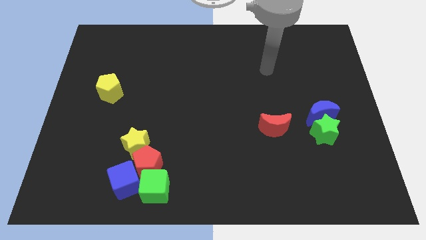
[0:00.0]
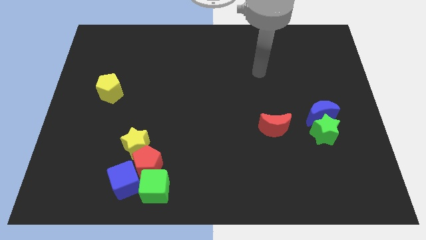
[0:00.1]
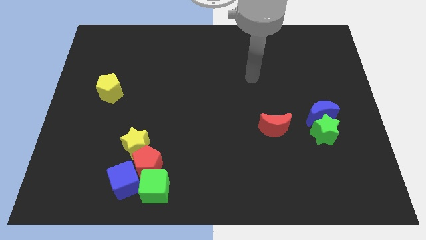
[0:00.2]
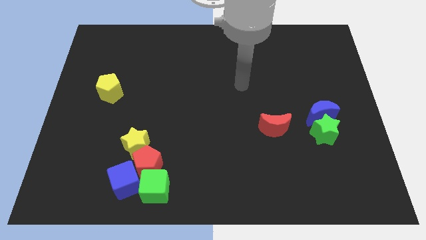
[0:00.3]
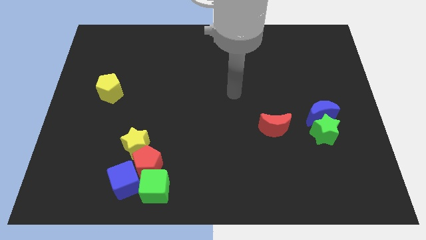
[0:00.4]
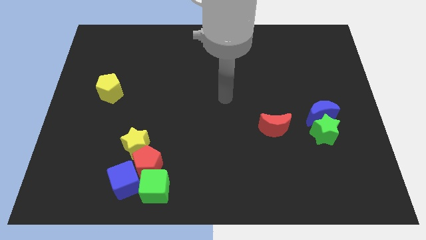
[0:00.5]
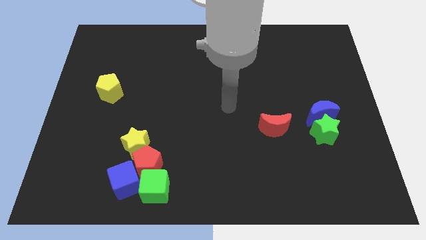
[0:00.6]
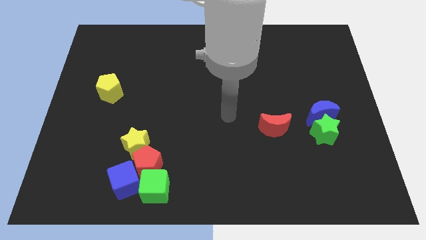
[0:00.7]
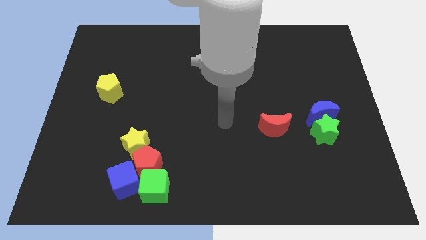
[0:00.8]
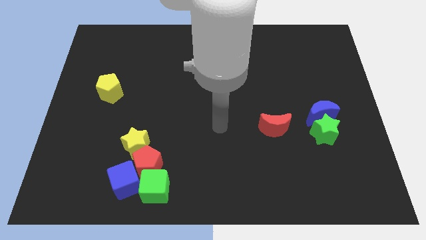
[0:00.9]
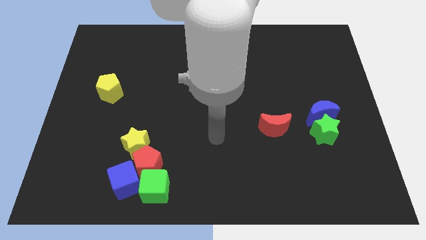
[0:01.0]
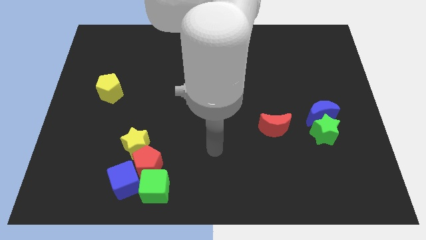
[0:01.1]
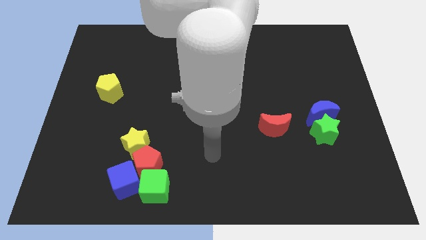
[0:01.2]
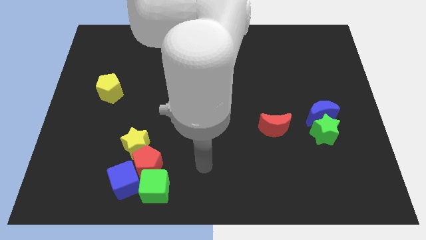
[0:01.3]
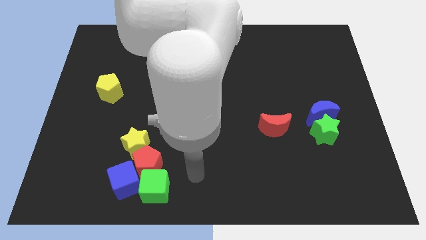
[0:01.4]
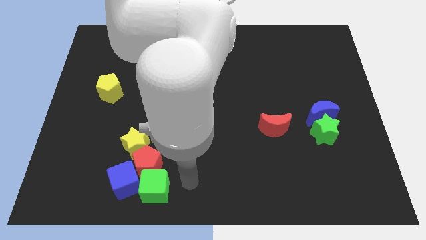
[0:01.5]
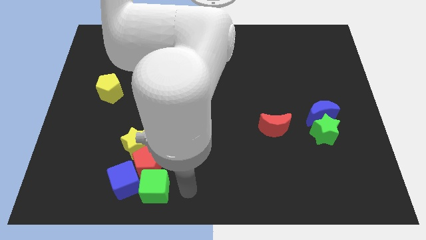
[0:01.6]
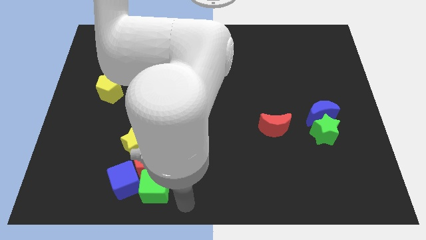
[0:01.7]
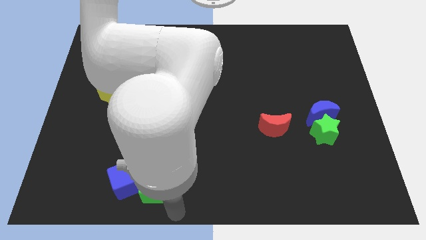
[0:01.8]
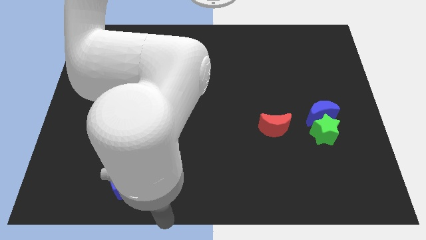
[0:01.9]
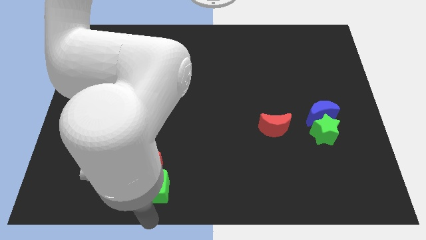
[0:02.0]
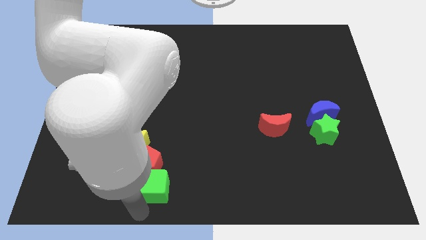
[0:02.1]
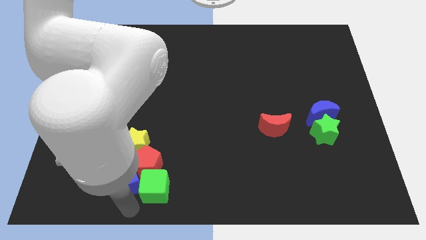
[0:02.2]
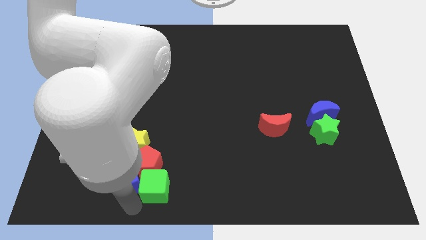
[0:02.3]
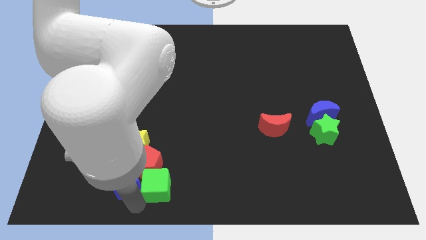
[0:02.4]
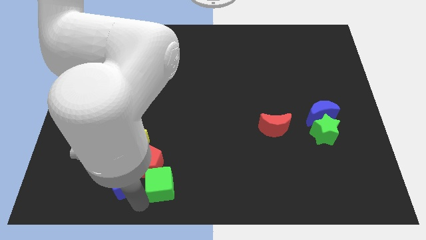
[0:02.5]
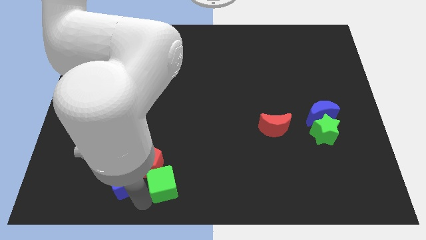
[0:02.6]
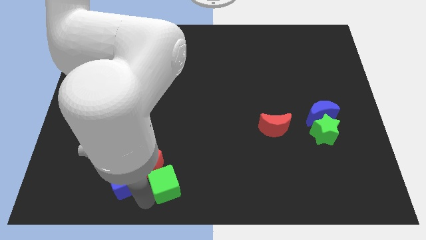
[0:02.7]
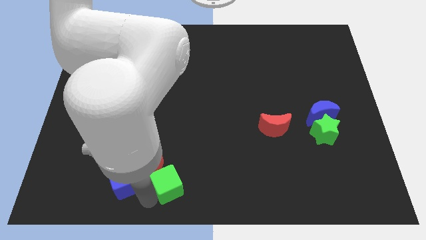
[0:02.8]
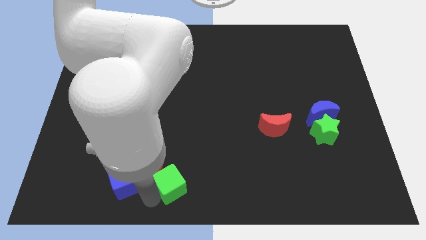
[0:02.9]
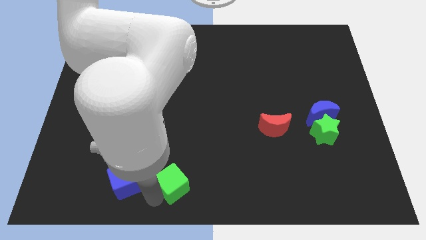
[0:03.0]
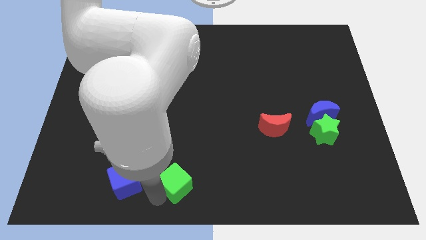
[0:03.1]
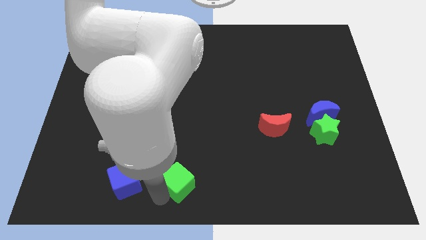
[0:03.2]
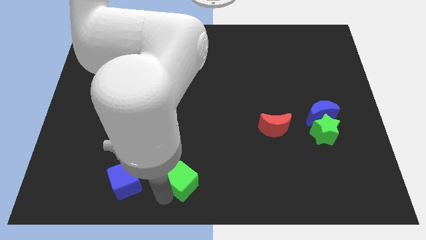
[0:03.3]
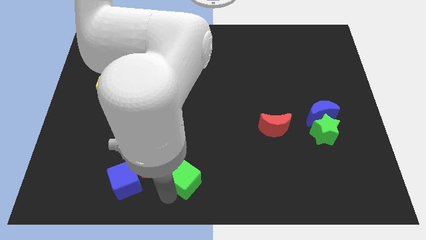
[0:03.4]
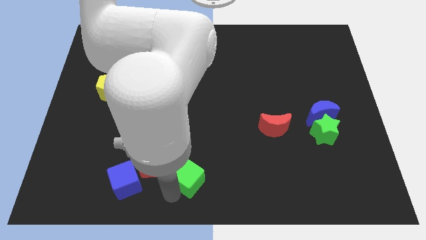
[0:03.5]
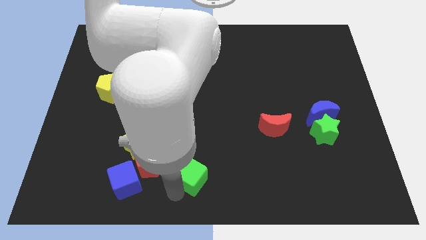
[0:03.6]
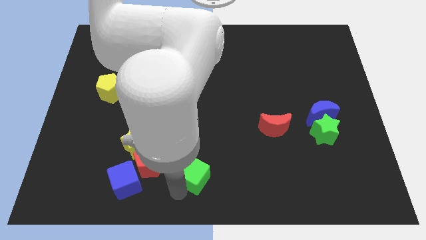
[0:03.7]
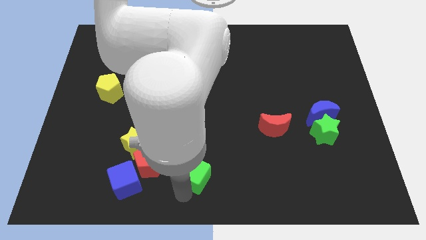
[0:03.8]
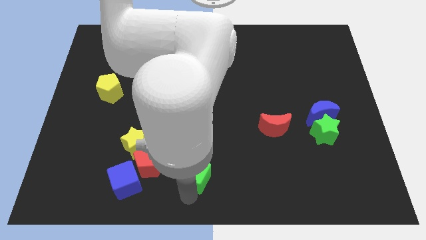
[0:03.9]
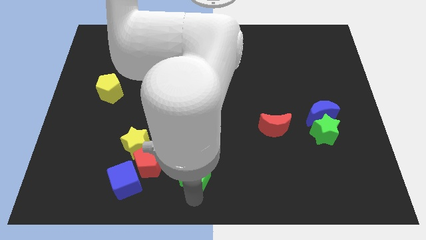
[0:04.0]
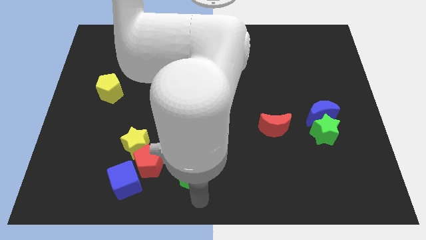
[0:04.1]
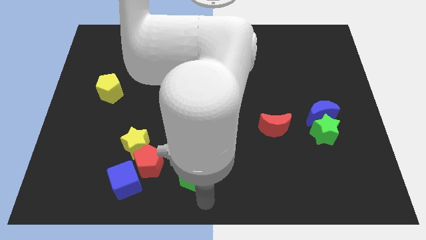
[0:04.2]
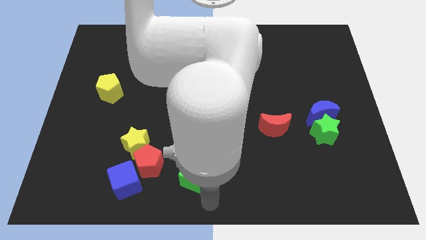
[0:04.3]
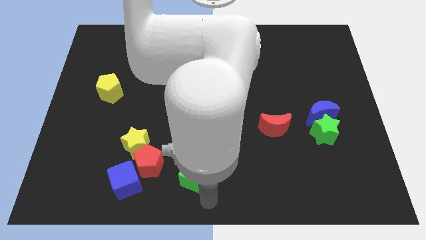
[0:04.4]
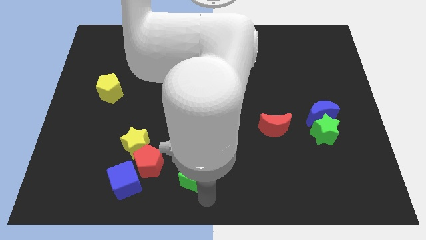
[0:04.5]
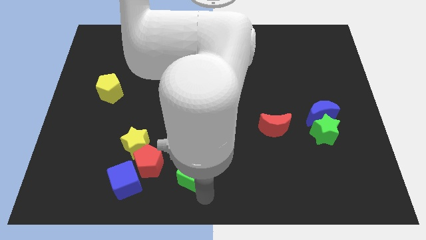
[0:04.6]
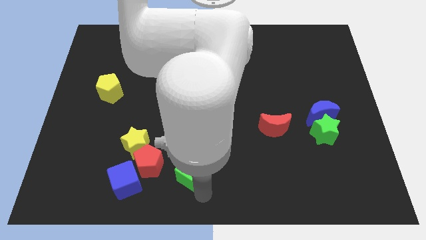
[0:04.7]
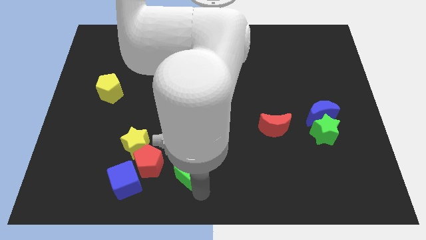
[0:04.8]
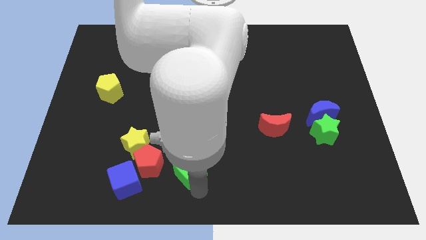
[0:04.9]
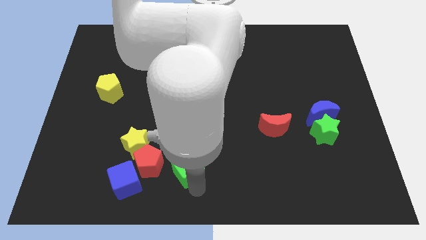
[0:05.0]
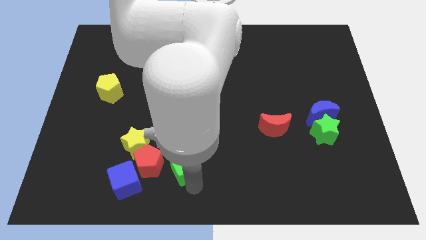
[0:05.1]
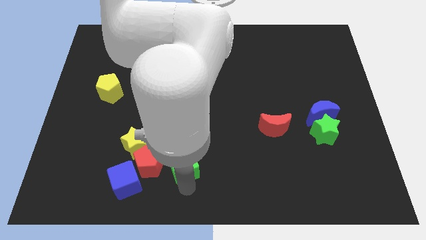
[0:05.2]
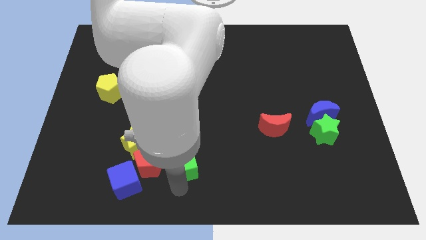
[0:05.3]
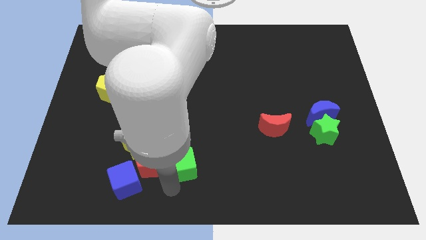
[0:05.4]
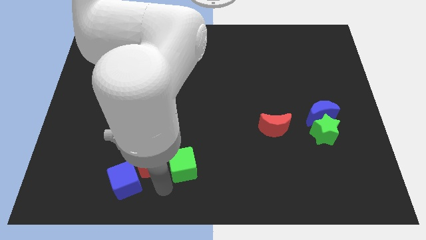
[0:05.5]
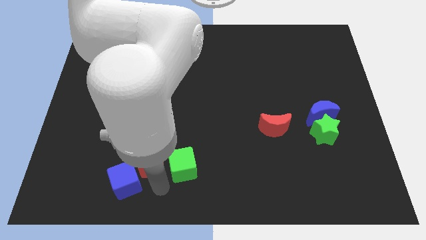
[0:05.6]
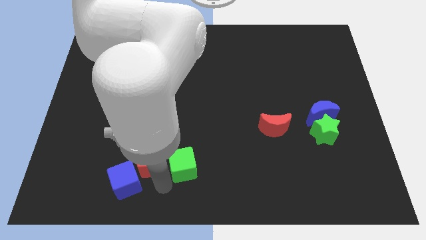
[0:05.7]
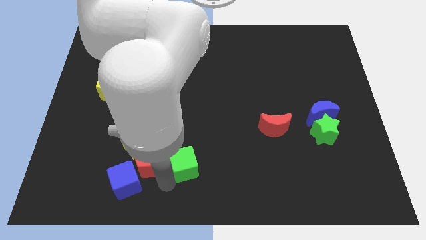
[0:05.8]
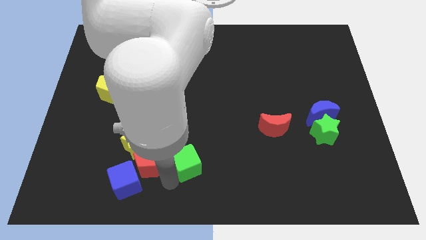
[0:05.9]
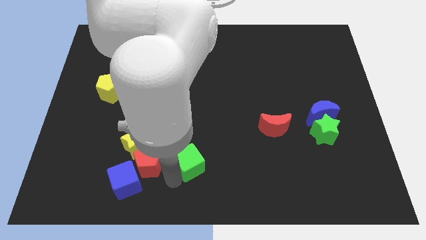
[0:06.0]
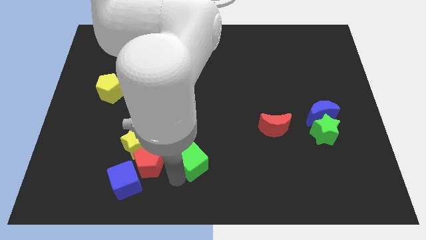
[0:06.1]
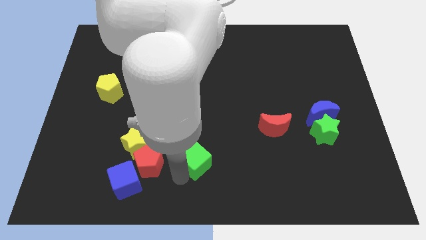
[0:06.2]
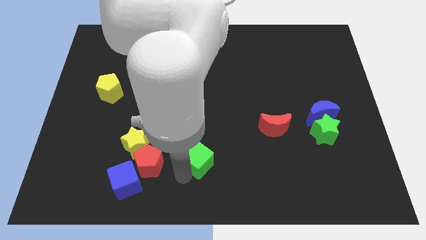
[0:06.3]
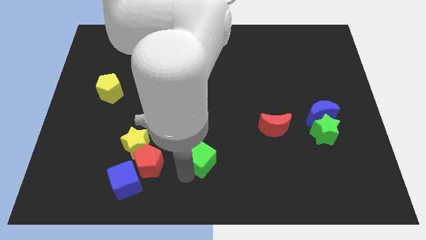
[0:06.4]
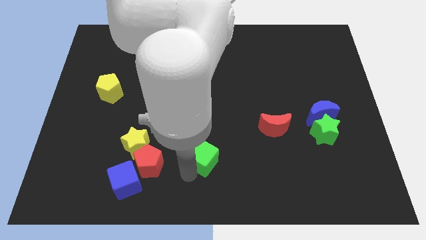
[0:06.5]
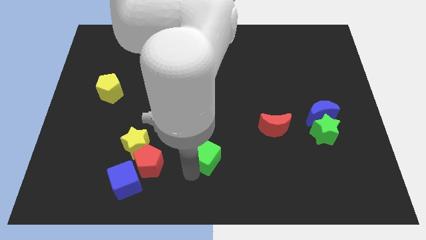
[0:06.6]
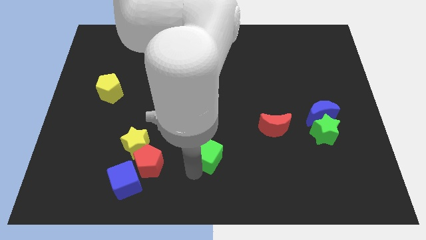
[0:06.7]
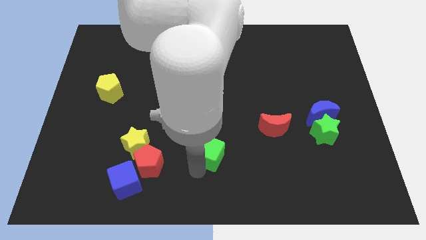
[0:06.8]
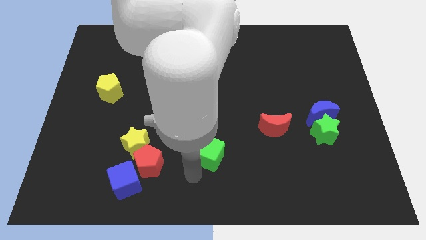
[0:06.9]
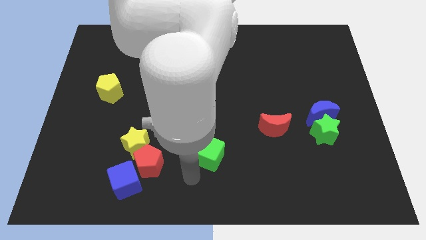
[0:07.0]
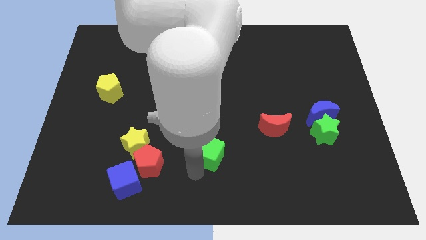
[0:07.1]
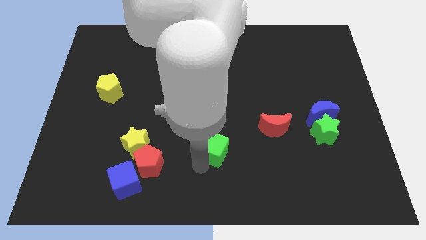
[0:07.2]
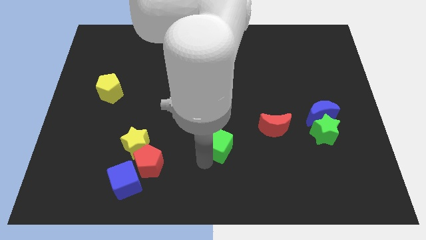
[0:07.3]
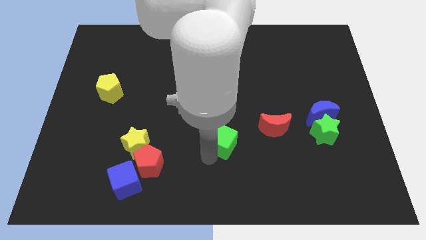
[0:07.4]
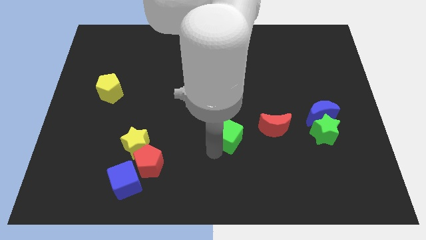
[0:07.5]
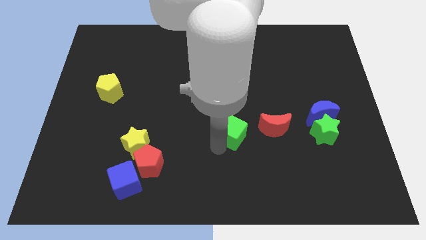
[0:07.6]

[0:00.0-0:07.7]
push the green cube upwards and to the right diagonally
